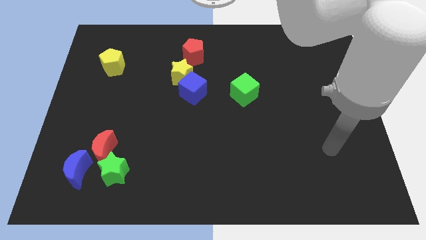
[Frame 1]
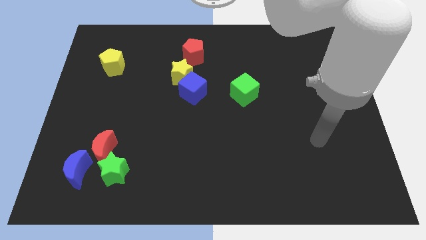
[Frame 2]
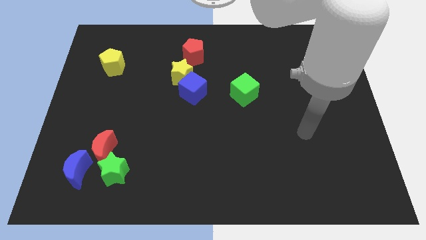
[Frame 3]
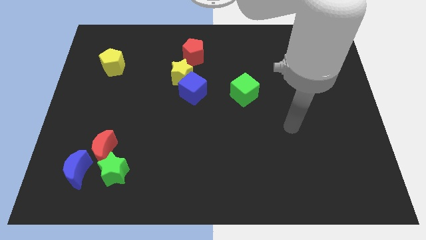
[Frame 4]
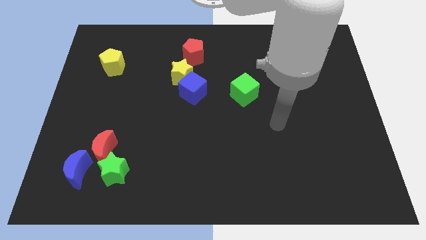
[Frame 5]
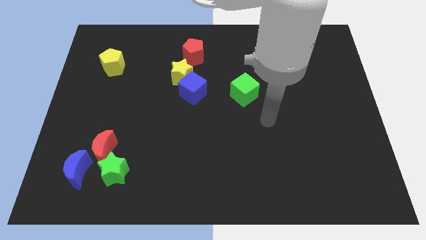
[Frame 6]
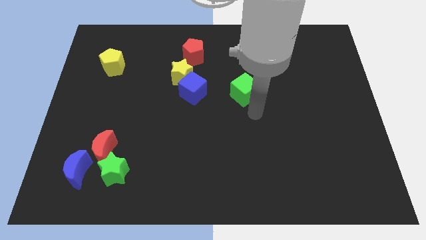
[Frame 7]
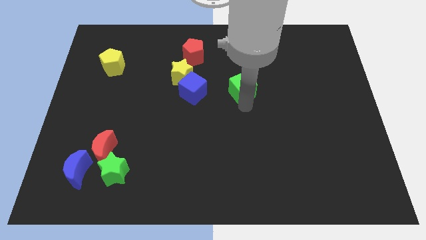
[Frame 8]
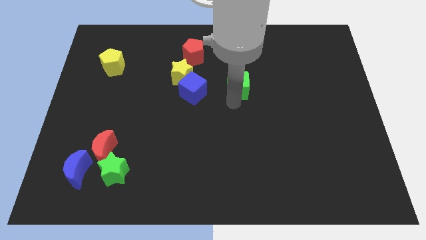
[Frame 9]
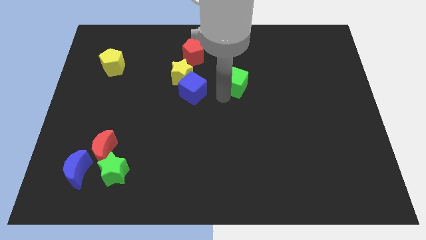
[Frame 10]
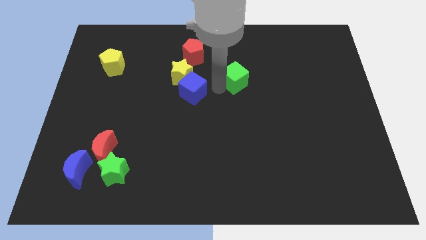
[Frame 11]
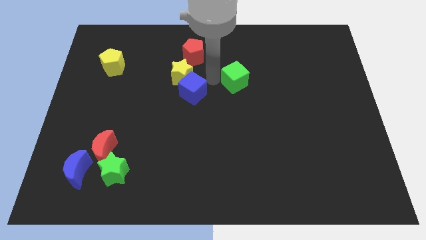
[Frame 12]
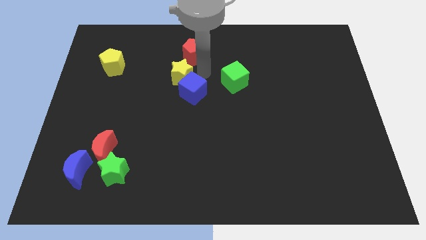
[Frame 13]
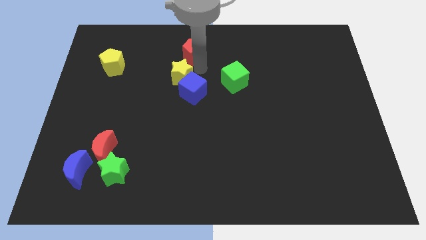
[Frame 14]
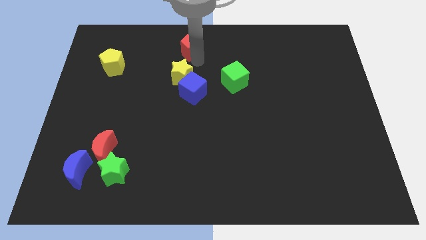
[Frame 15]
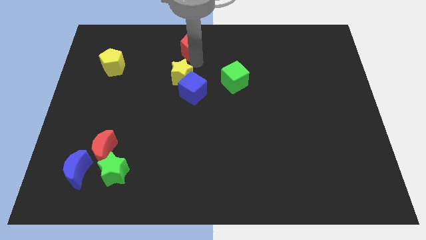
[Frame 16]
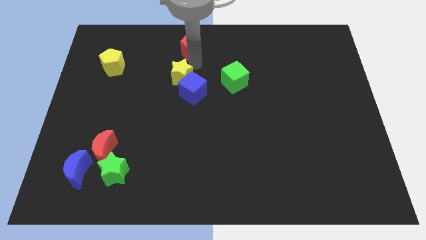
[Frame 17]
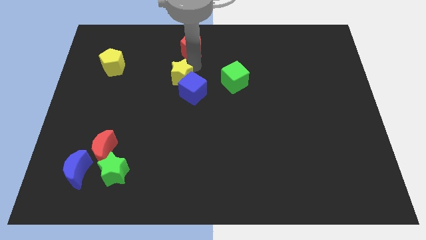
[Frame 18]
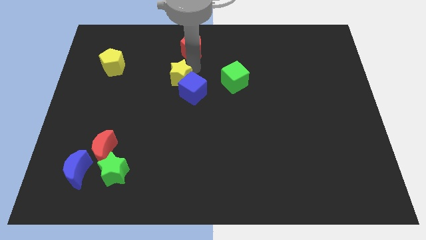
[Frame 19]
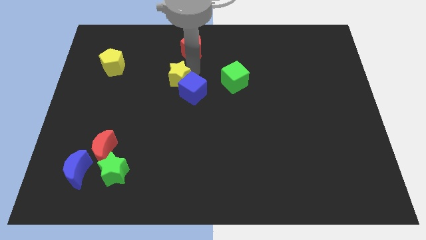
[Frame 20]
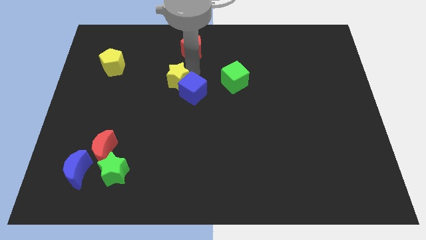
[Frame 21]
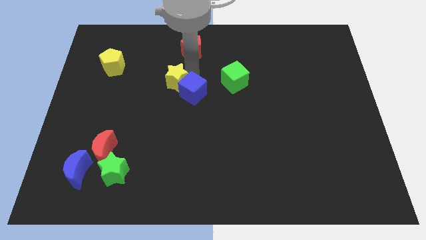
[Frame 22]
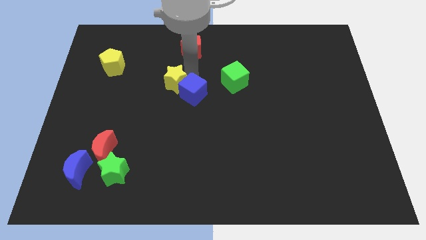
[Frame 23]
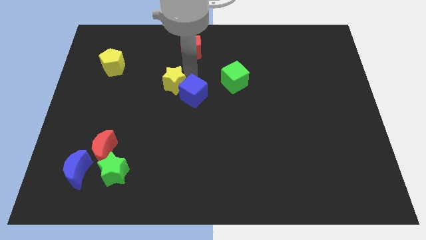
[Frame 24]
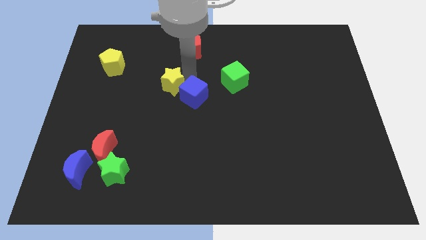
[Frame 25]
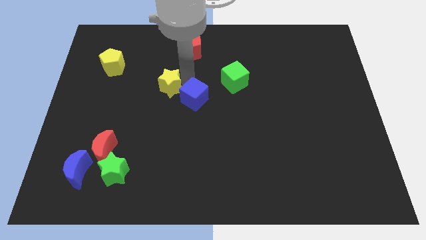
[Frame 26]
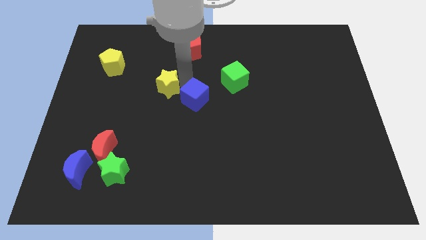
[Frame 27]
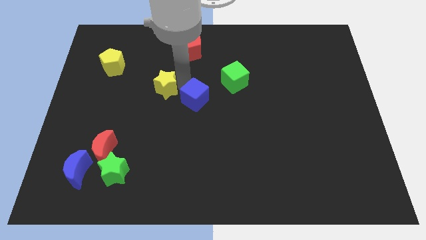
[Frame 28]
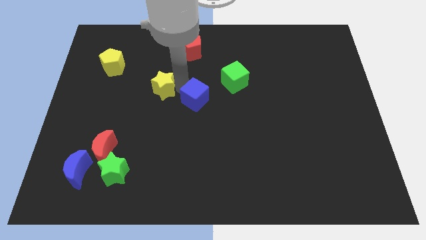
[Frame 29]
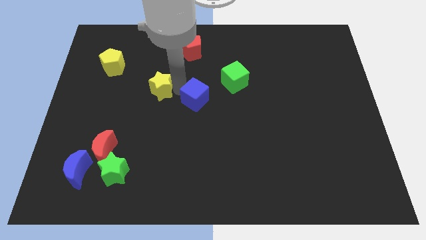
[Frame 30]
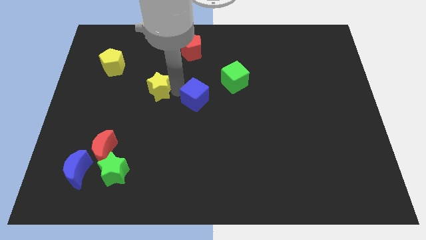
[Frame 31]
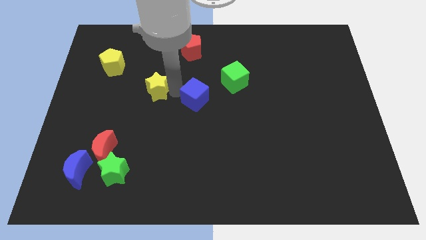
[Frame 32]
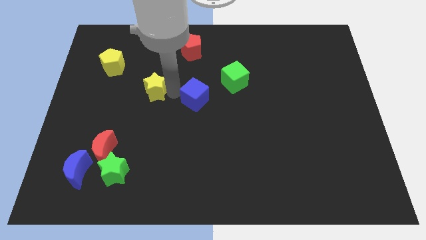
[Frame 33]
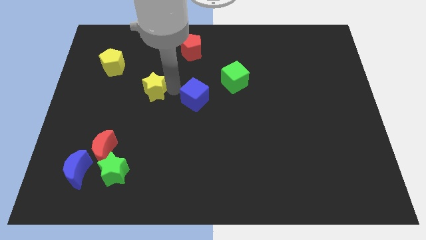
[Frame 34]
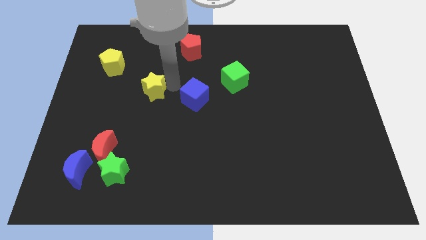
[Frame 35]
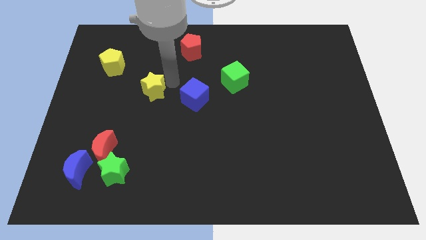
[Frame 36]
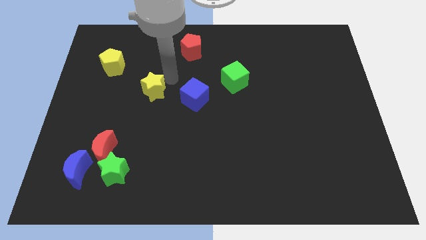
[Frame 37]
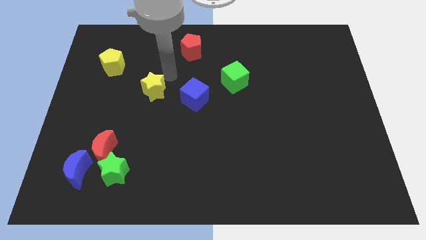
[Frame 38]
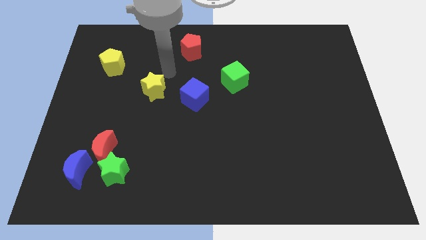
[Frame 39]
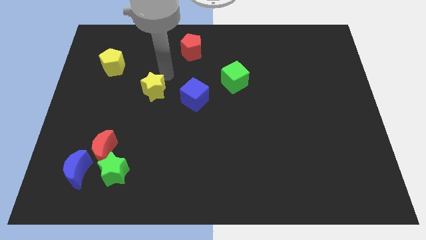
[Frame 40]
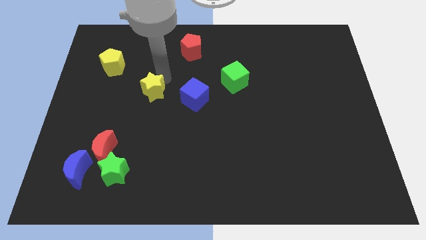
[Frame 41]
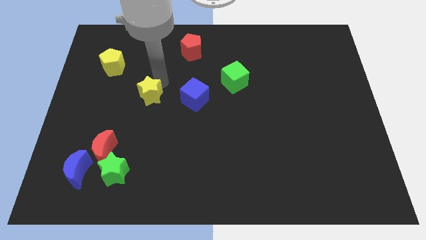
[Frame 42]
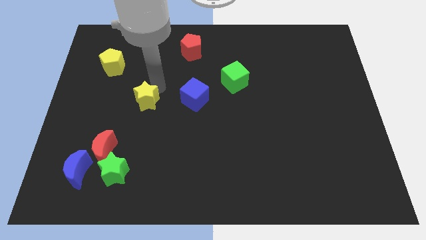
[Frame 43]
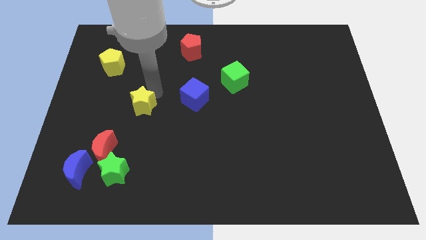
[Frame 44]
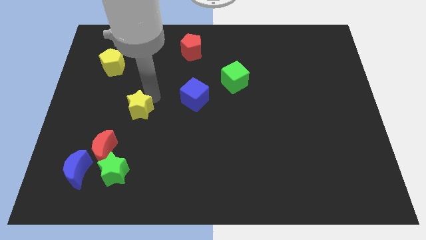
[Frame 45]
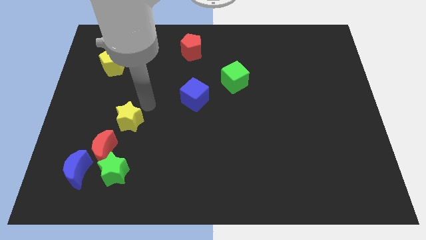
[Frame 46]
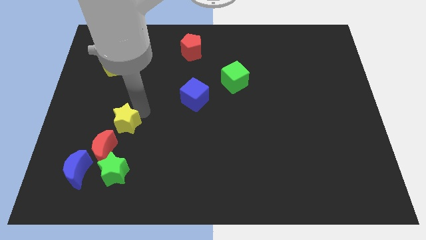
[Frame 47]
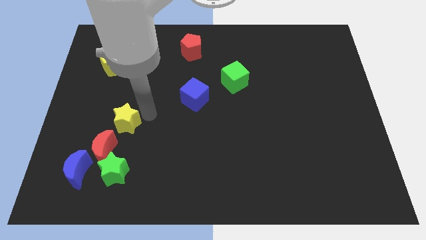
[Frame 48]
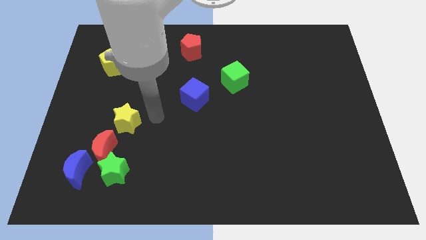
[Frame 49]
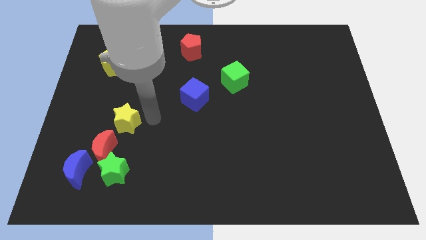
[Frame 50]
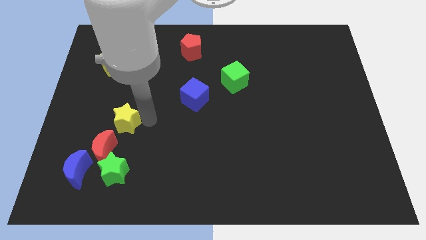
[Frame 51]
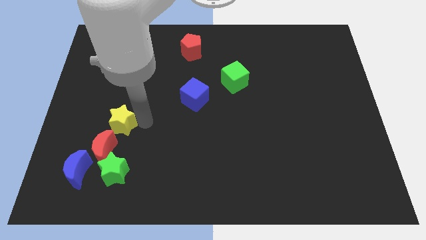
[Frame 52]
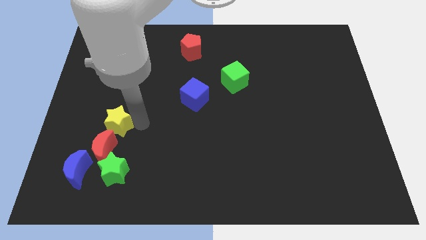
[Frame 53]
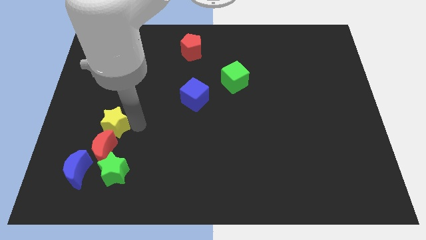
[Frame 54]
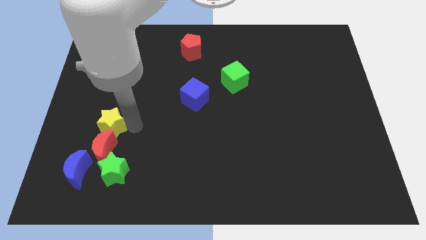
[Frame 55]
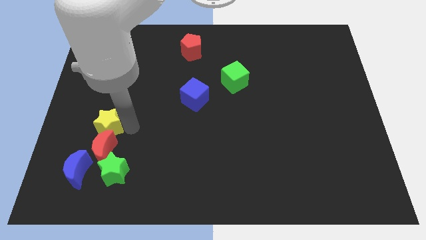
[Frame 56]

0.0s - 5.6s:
slide the yellow star to the top of the blue moon

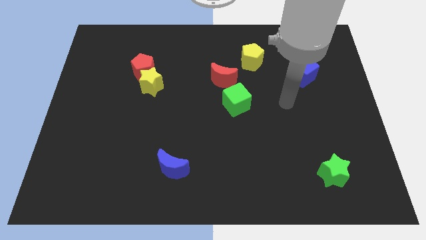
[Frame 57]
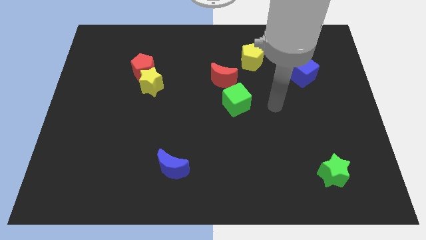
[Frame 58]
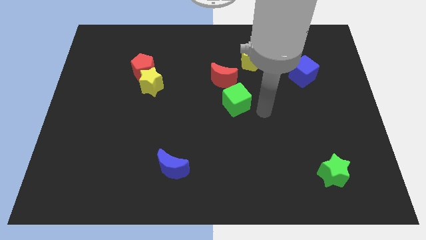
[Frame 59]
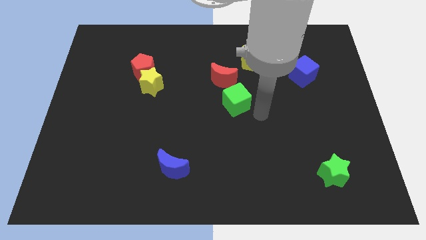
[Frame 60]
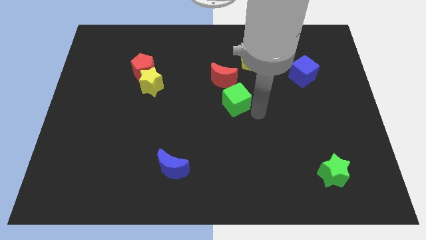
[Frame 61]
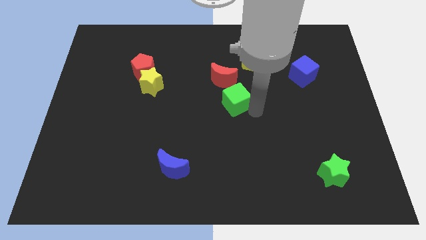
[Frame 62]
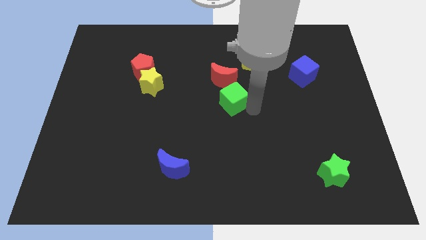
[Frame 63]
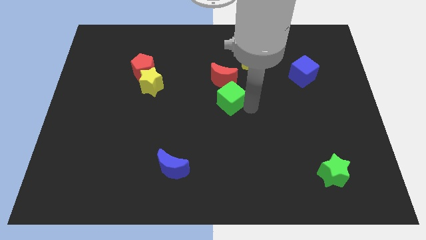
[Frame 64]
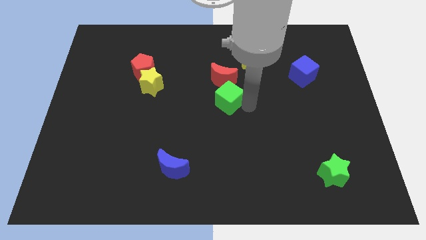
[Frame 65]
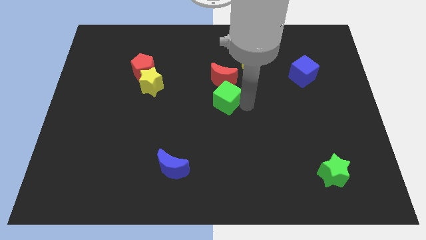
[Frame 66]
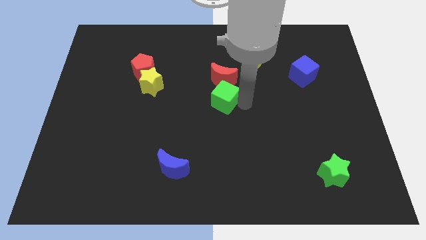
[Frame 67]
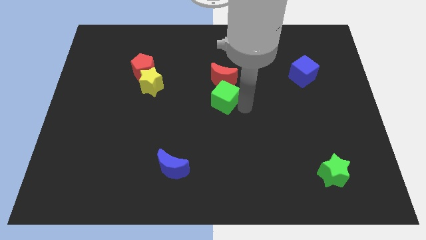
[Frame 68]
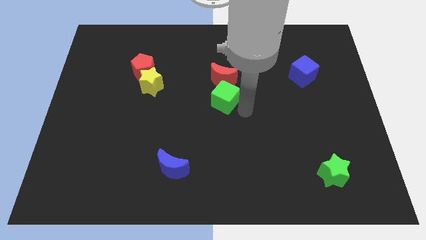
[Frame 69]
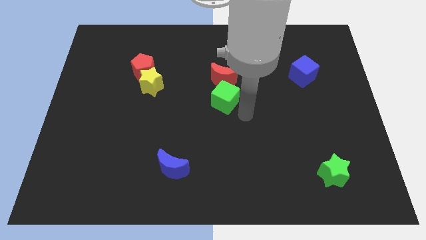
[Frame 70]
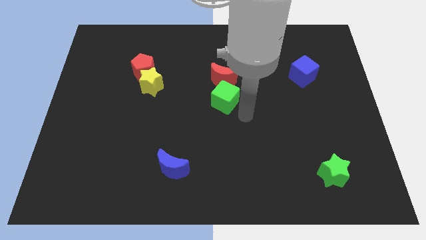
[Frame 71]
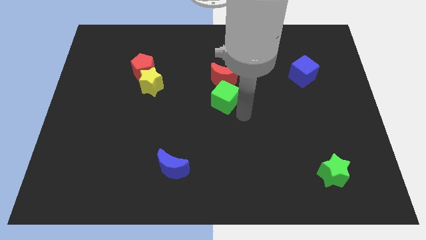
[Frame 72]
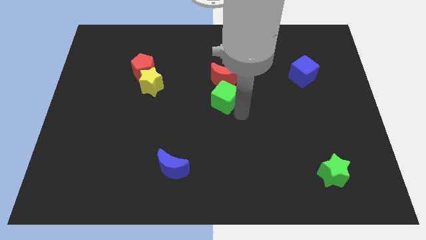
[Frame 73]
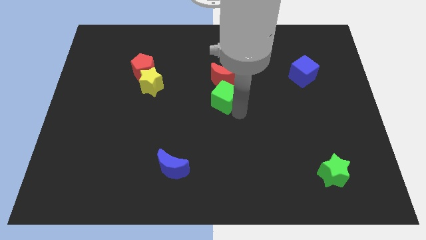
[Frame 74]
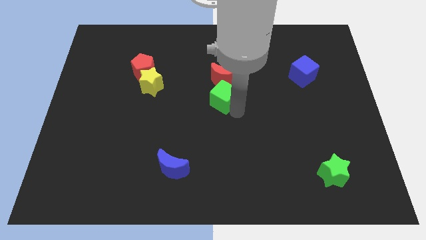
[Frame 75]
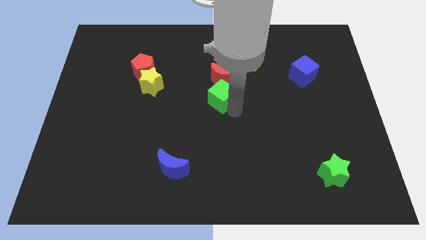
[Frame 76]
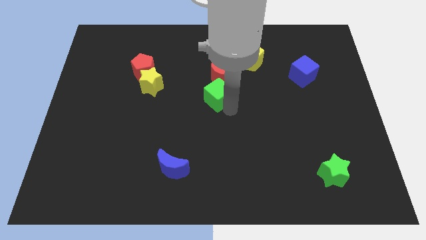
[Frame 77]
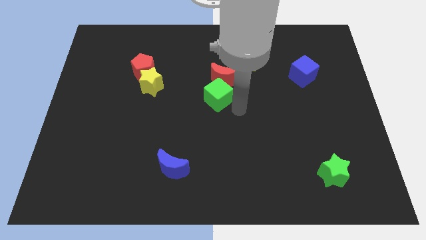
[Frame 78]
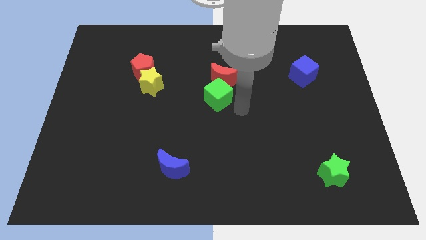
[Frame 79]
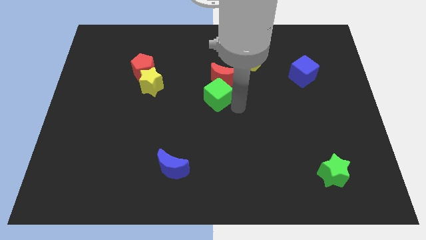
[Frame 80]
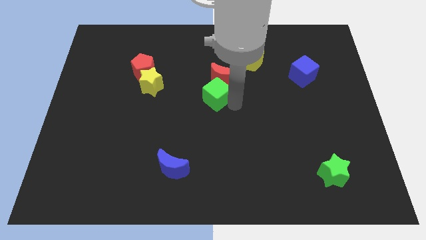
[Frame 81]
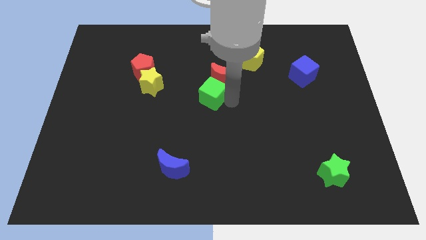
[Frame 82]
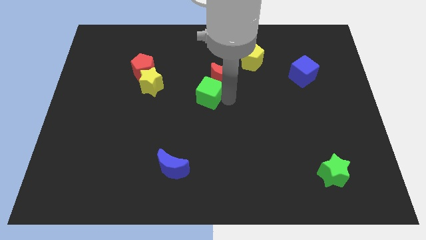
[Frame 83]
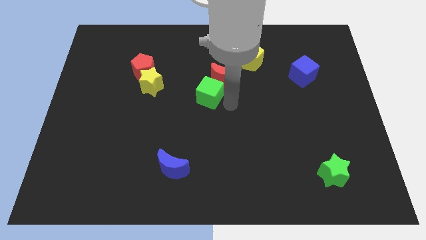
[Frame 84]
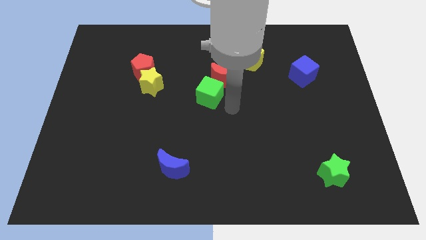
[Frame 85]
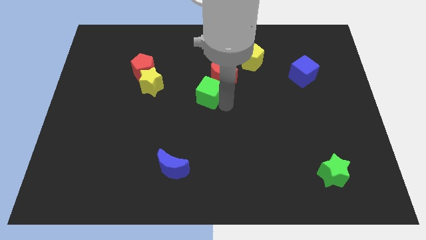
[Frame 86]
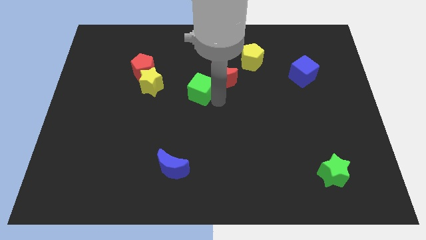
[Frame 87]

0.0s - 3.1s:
move the green cube just left of the red moon
